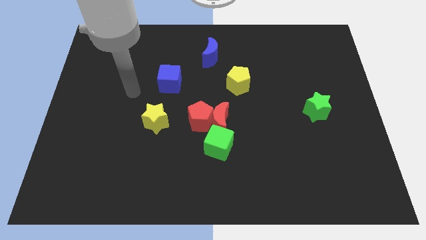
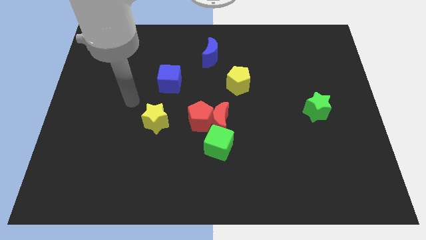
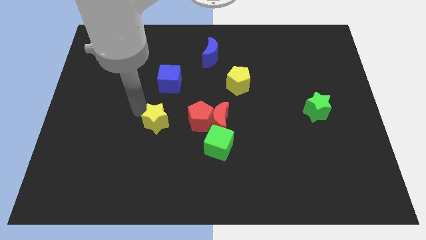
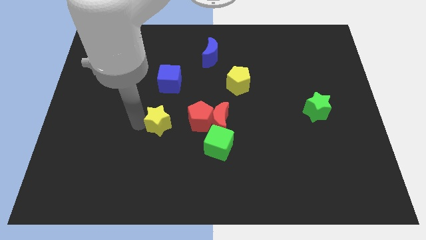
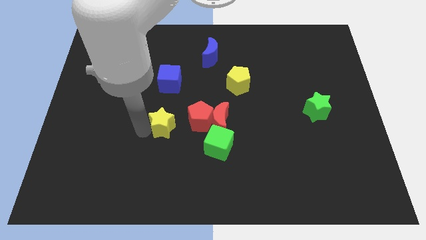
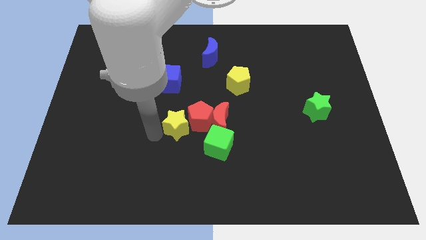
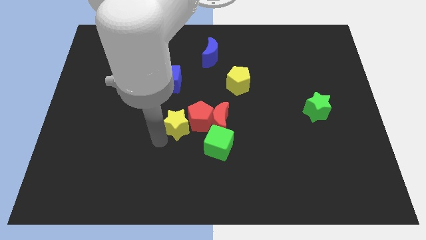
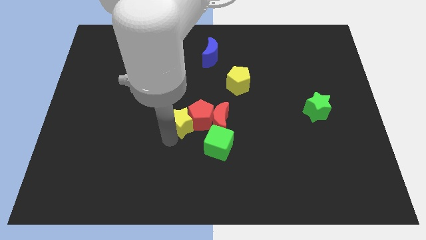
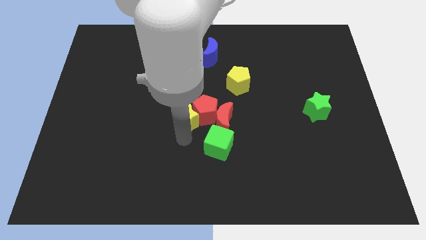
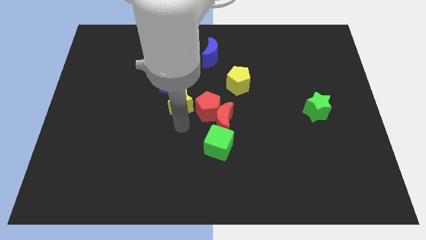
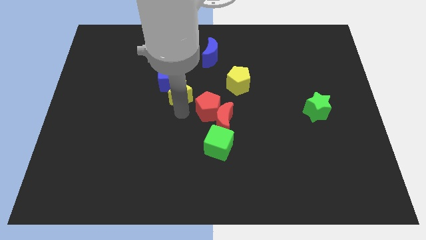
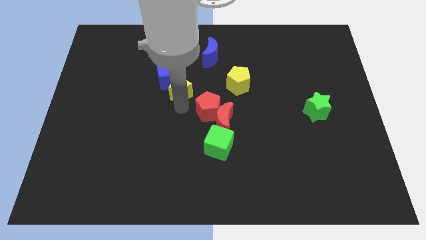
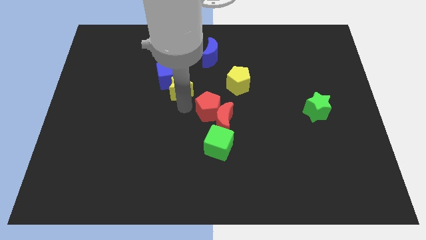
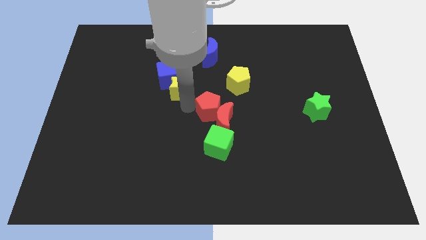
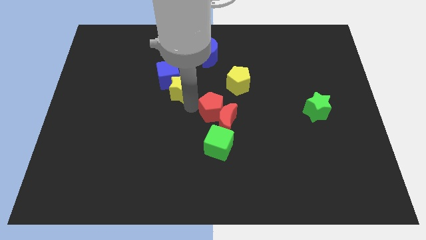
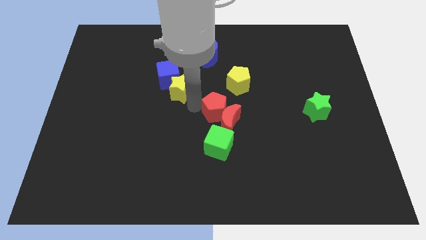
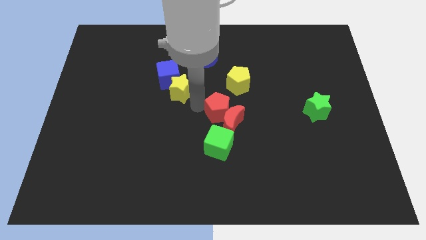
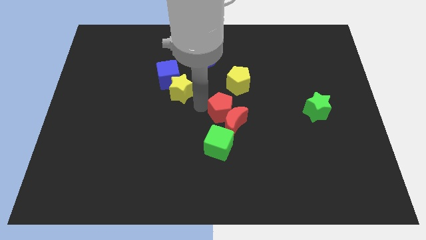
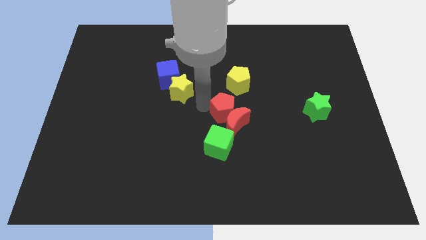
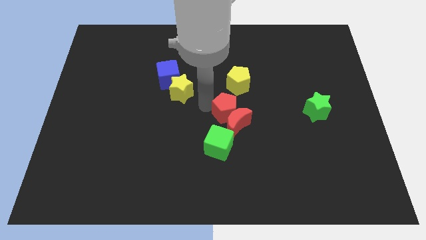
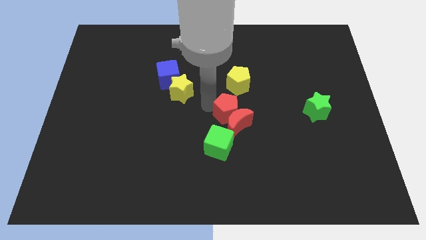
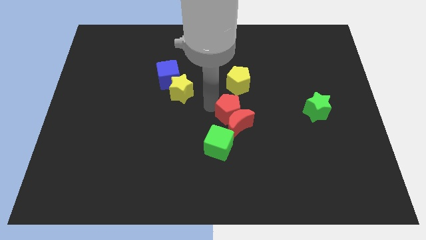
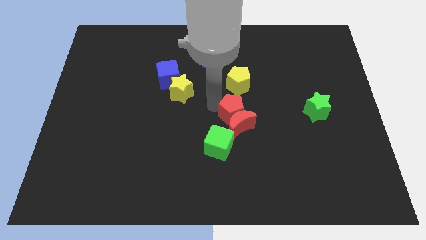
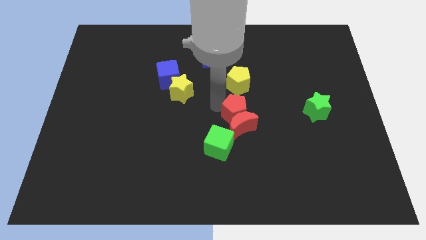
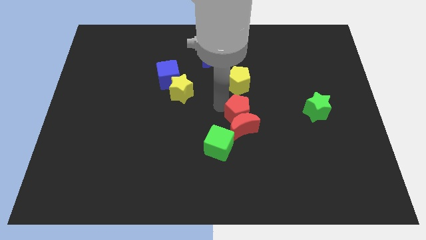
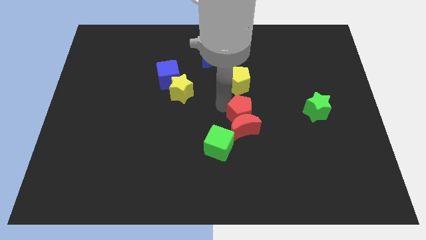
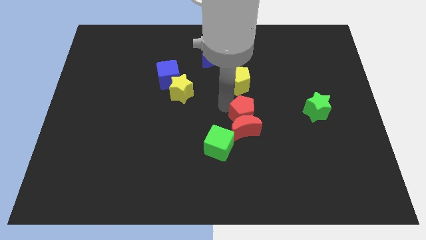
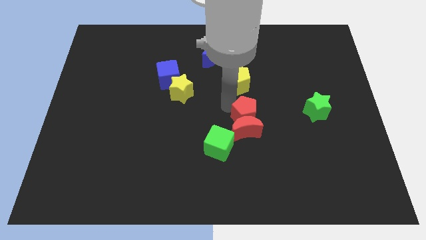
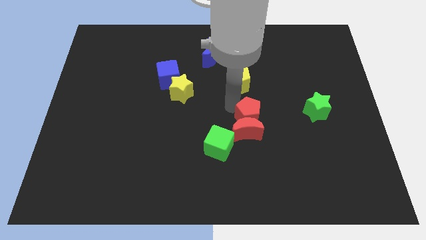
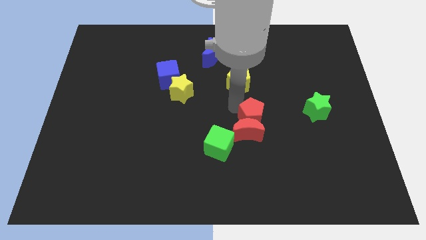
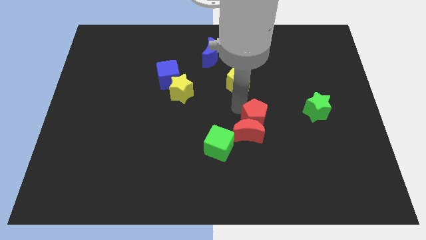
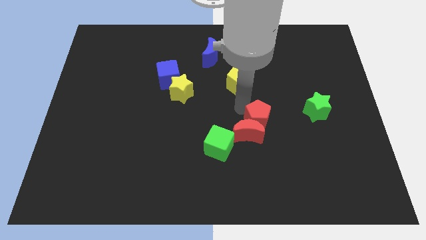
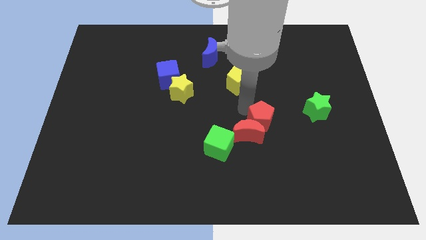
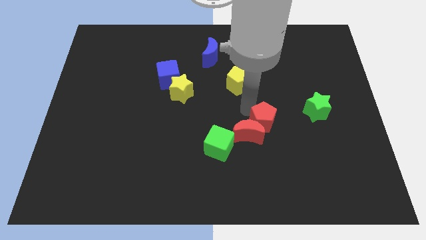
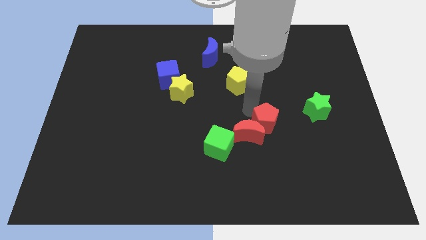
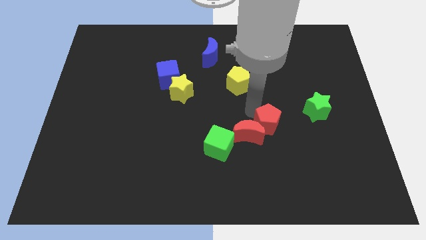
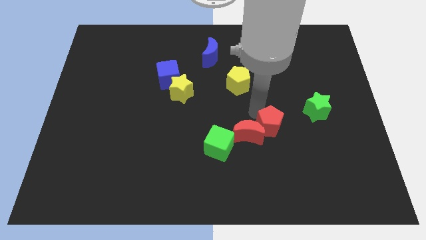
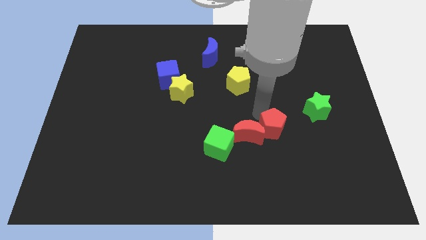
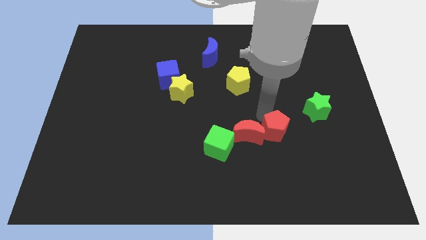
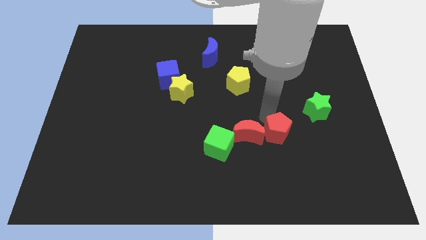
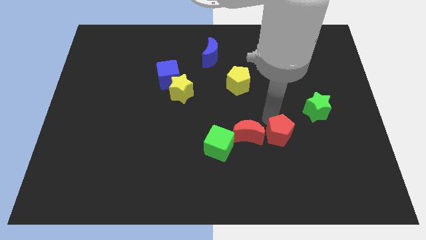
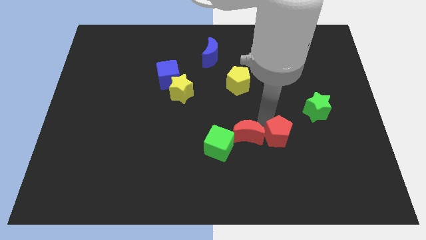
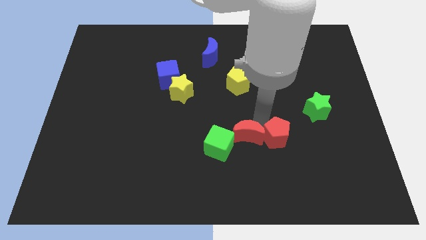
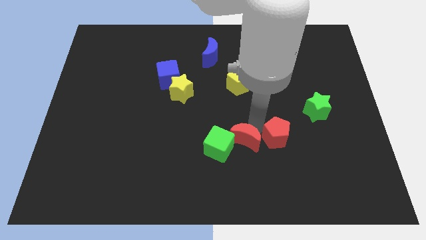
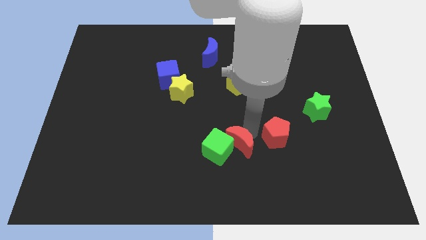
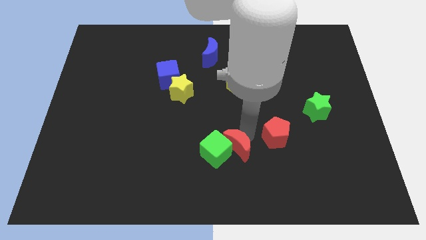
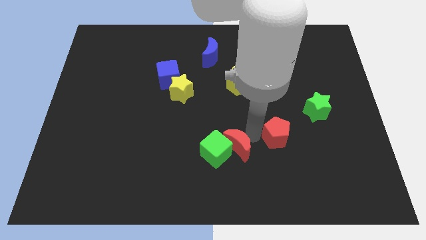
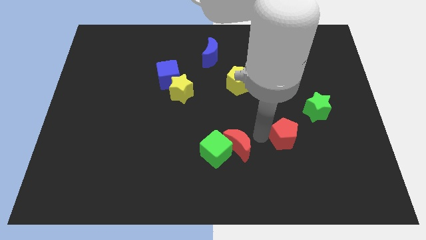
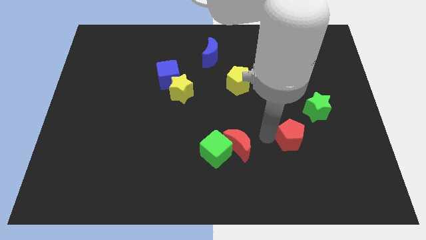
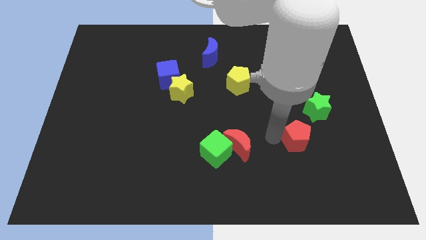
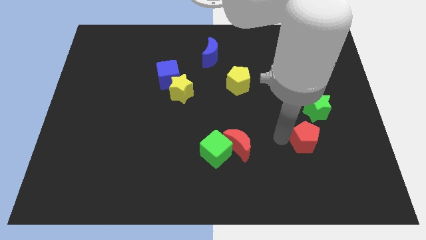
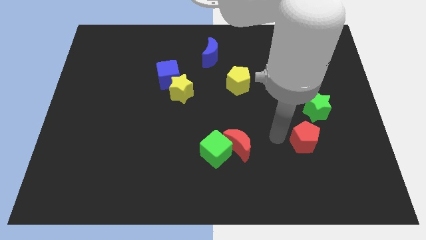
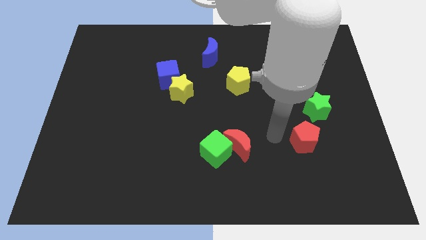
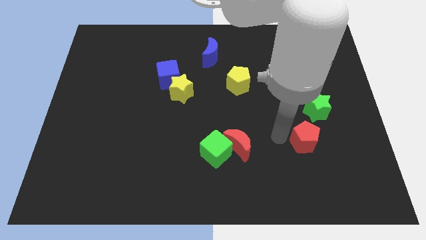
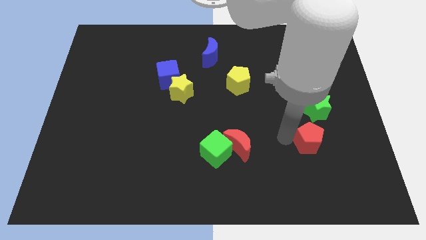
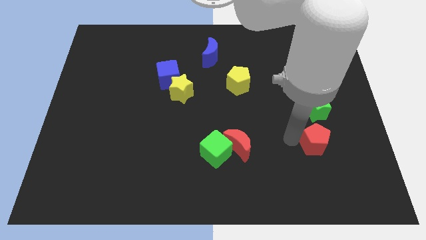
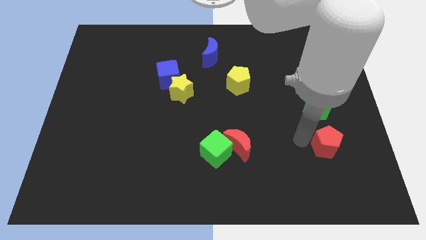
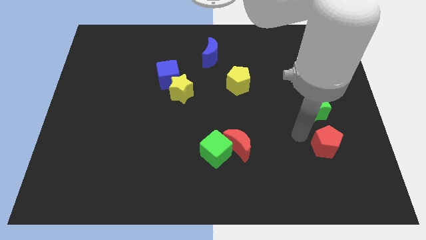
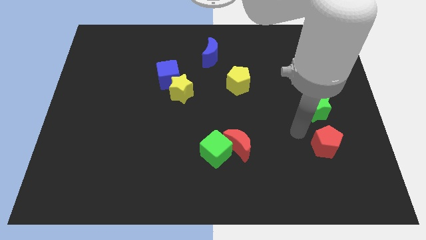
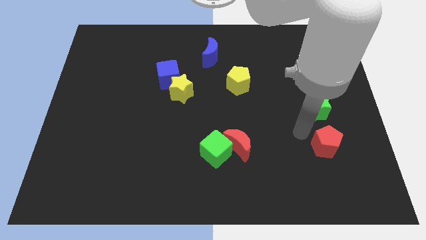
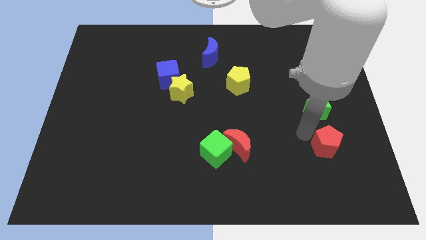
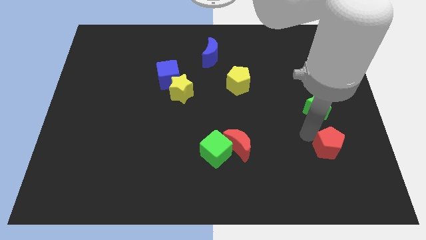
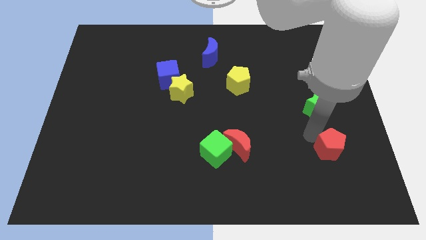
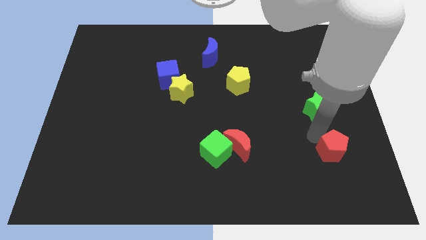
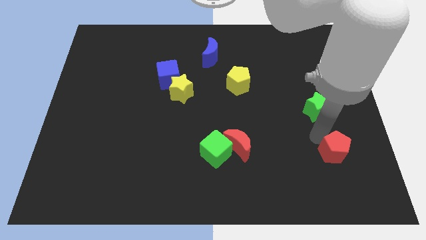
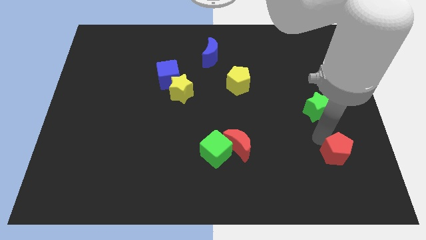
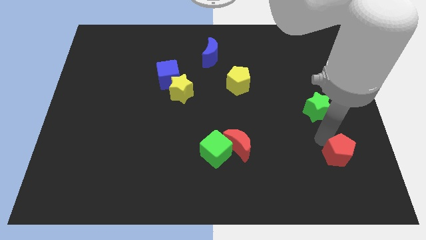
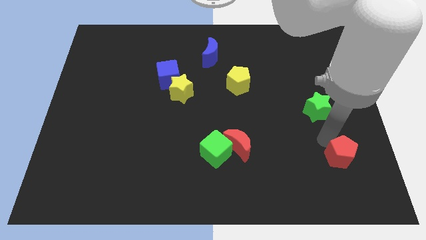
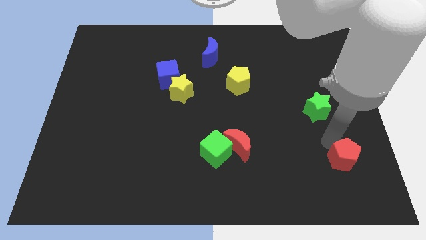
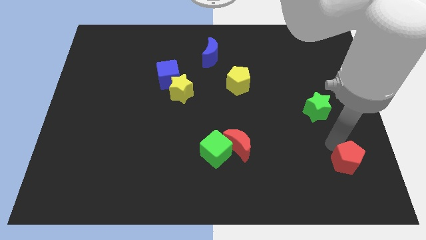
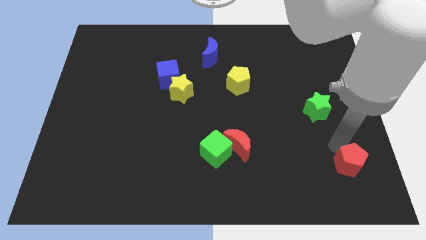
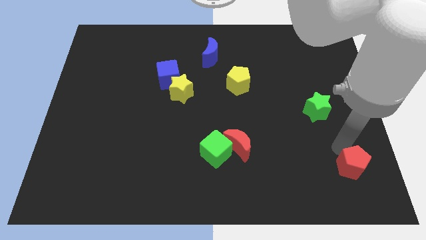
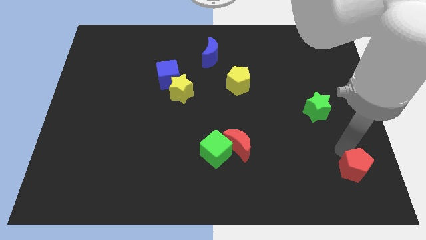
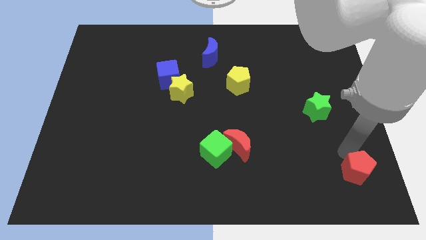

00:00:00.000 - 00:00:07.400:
put the red pentagon to the bottom right corner
